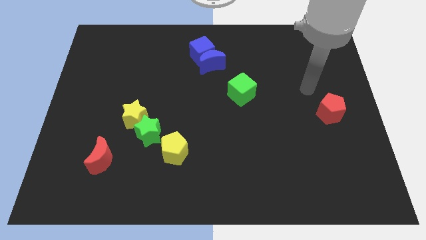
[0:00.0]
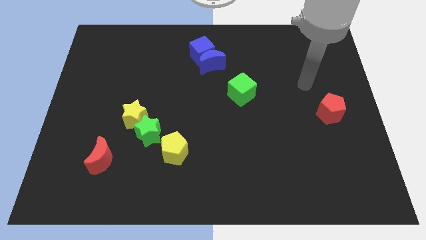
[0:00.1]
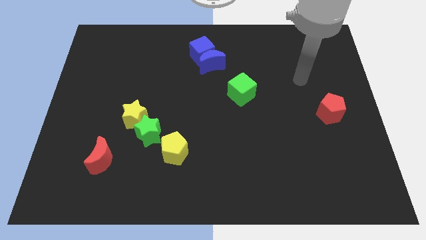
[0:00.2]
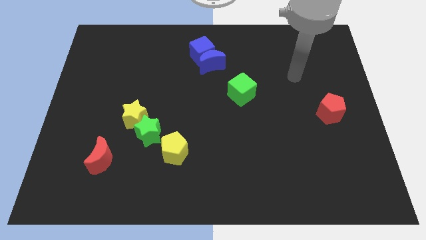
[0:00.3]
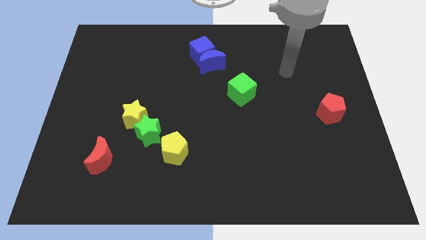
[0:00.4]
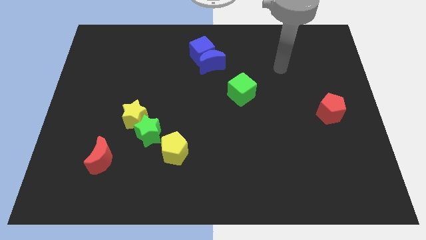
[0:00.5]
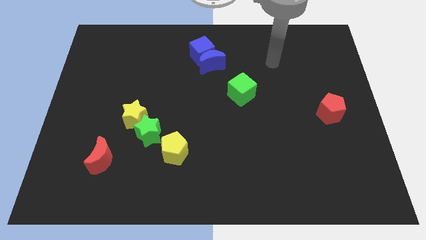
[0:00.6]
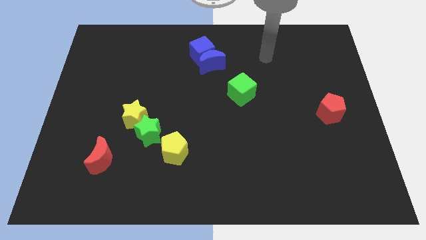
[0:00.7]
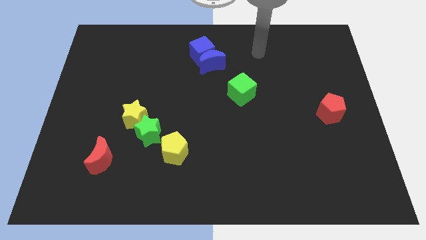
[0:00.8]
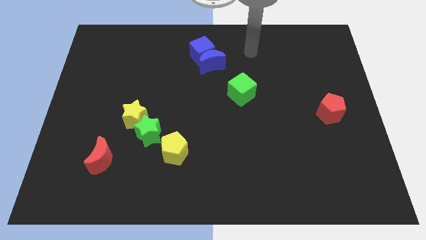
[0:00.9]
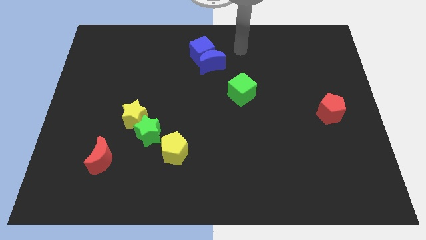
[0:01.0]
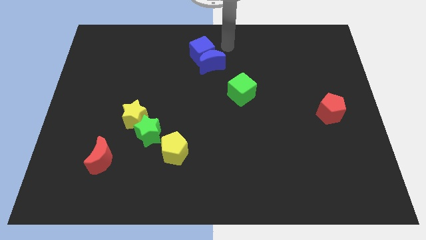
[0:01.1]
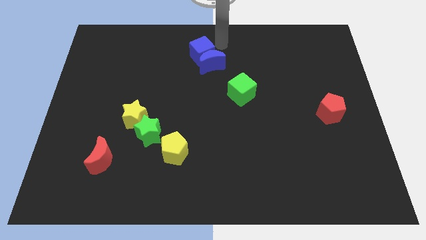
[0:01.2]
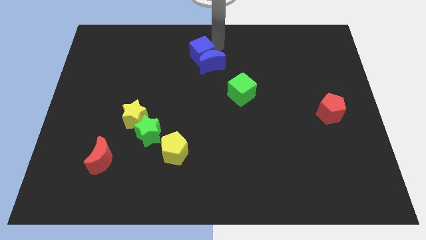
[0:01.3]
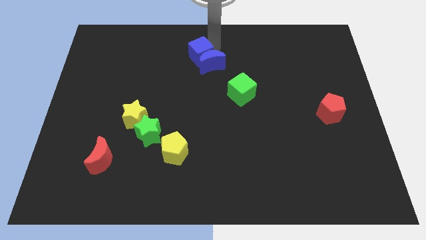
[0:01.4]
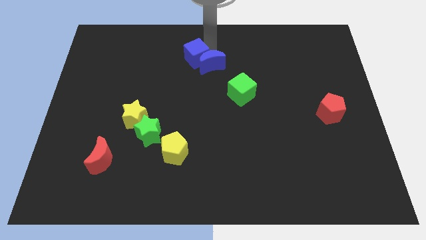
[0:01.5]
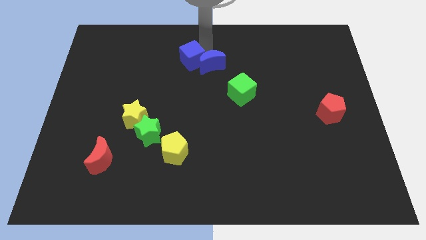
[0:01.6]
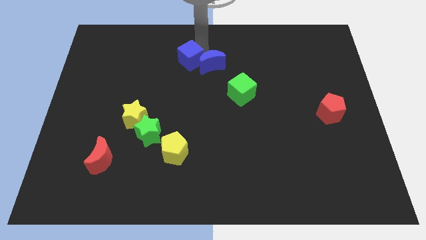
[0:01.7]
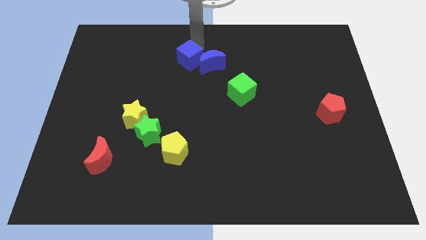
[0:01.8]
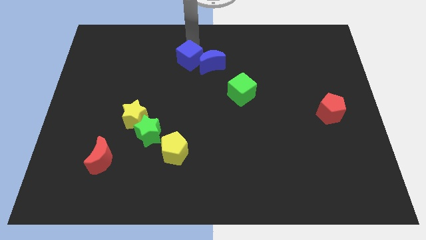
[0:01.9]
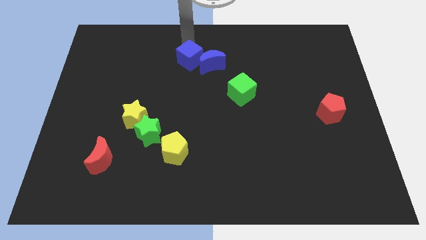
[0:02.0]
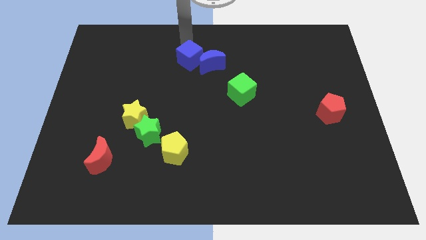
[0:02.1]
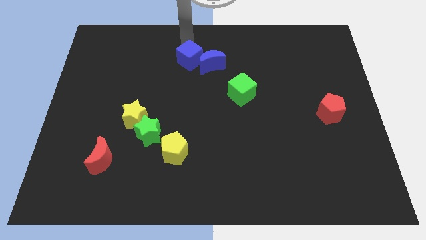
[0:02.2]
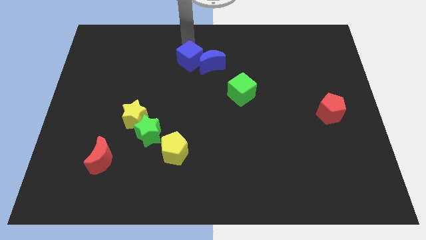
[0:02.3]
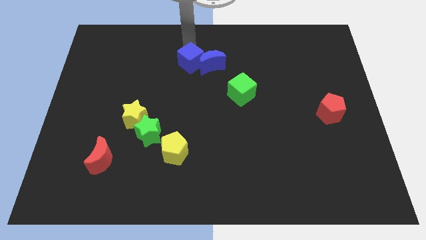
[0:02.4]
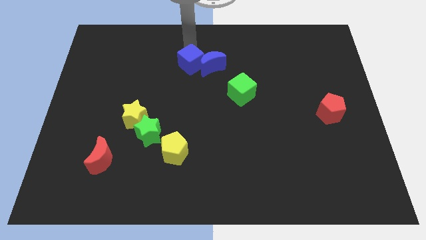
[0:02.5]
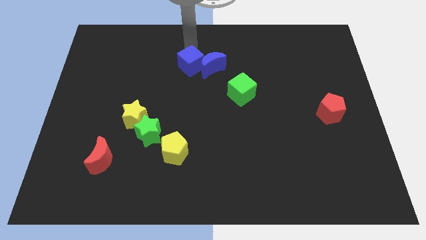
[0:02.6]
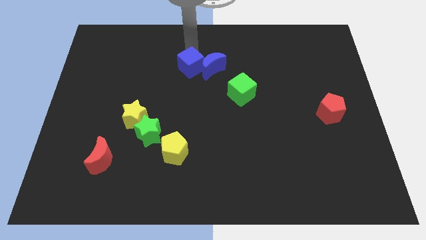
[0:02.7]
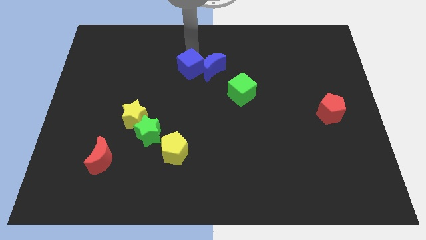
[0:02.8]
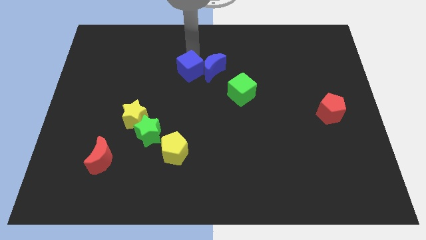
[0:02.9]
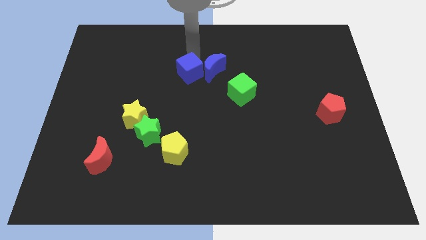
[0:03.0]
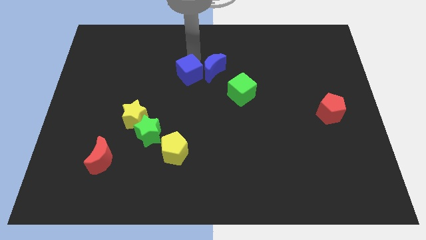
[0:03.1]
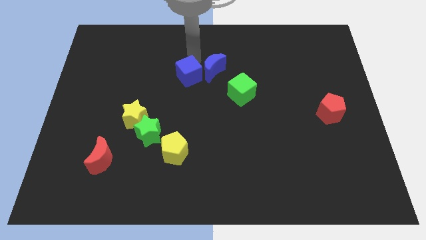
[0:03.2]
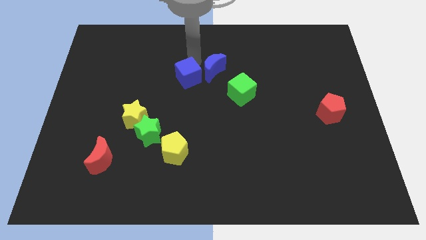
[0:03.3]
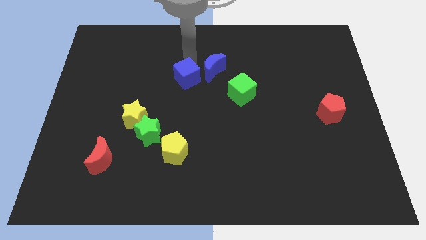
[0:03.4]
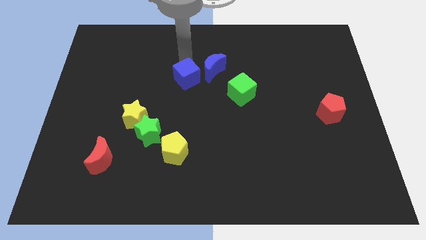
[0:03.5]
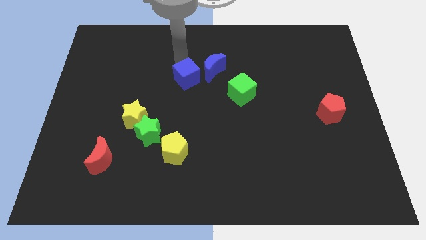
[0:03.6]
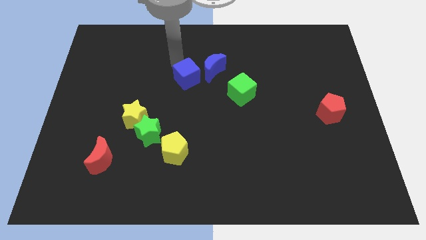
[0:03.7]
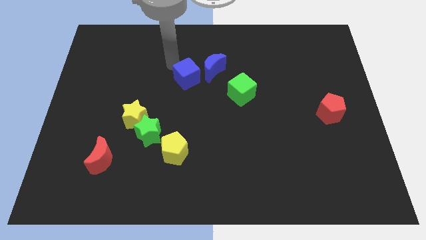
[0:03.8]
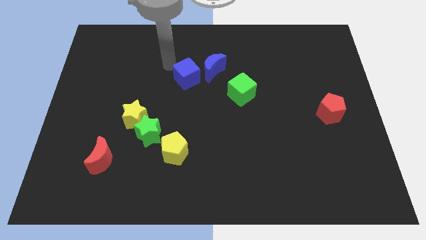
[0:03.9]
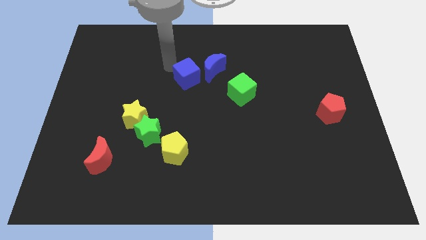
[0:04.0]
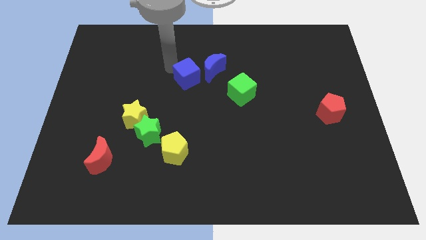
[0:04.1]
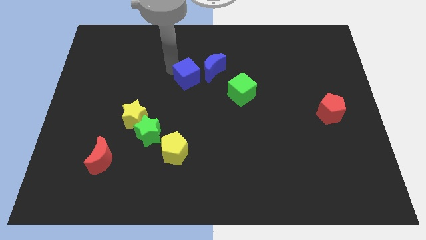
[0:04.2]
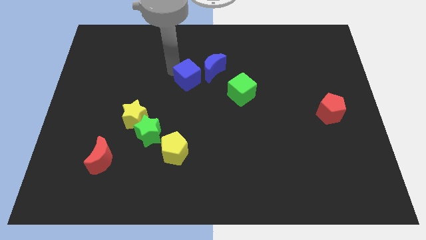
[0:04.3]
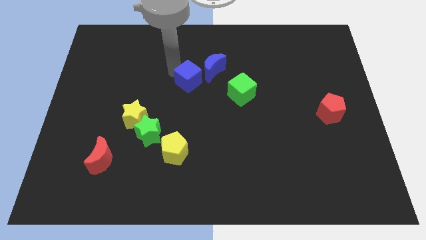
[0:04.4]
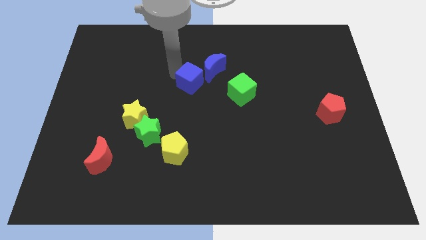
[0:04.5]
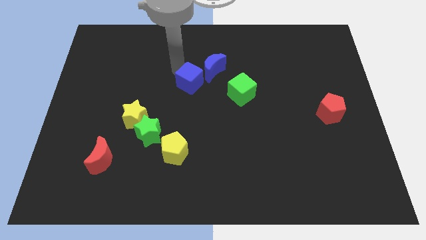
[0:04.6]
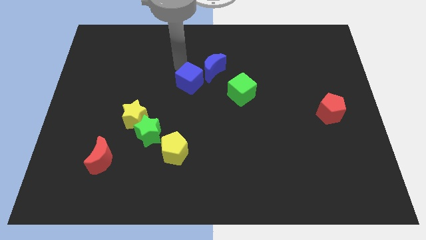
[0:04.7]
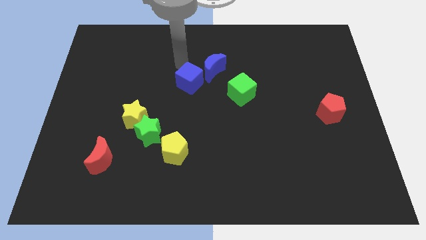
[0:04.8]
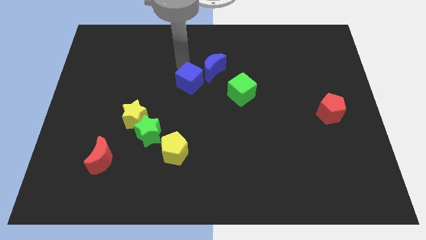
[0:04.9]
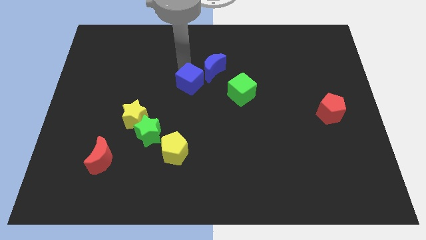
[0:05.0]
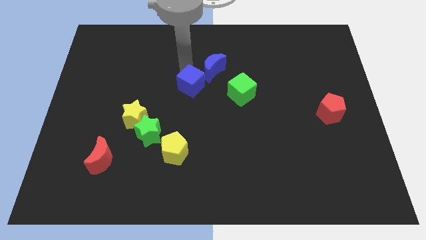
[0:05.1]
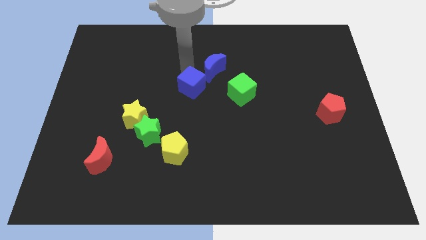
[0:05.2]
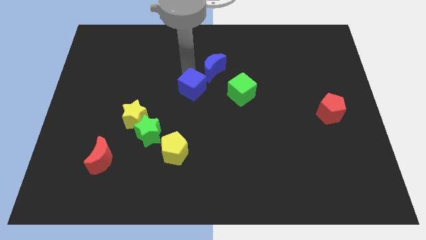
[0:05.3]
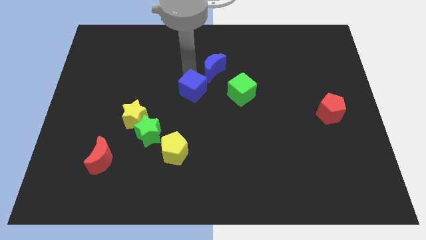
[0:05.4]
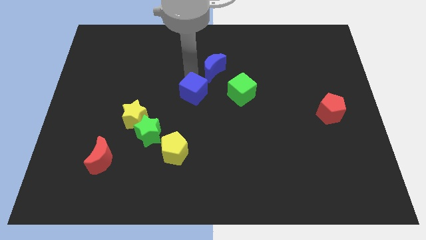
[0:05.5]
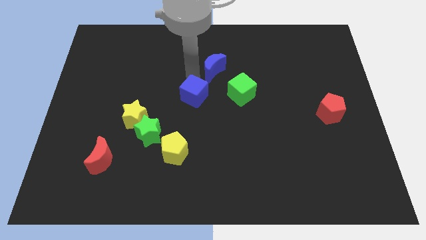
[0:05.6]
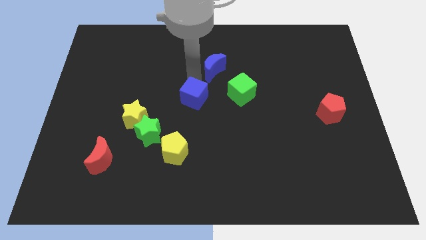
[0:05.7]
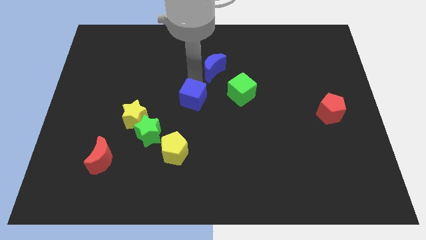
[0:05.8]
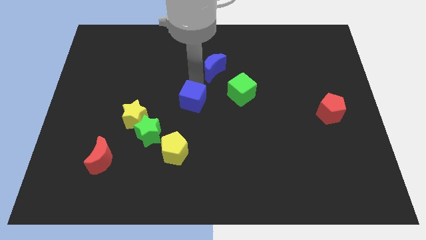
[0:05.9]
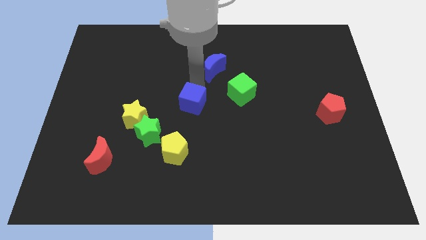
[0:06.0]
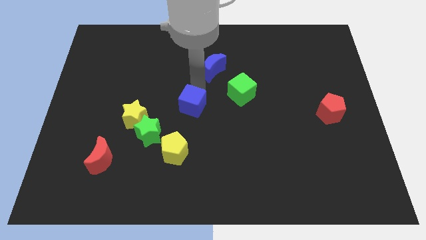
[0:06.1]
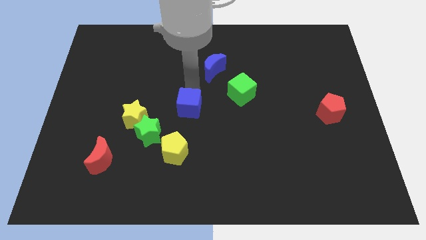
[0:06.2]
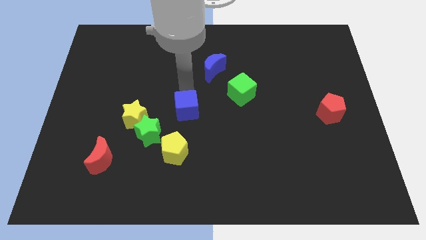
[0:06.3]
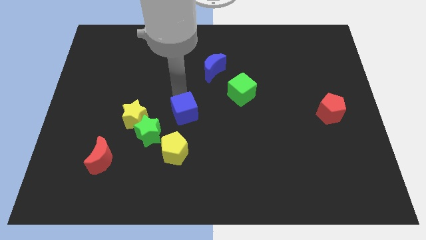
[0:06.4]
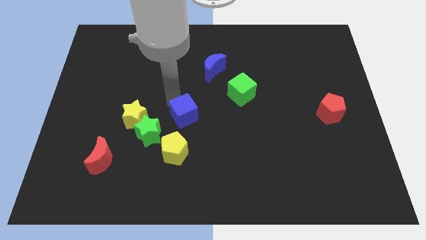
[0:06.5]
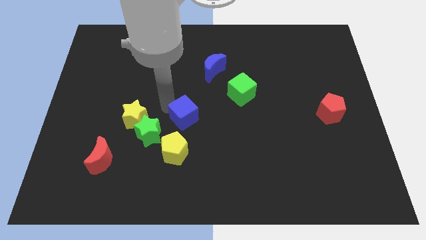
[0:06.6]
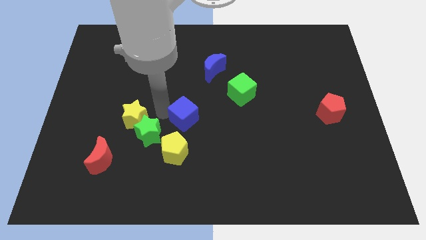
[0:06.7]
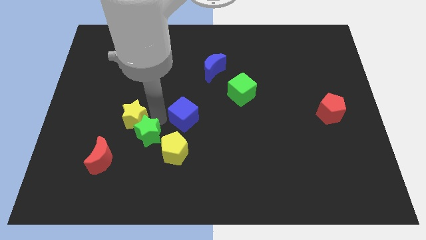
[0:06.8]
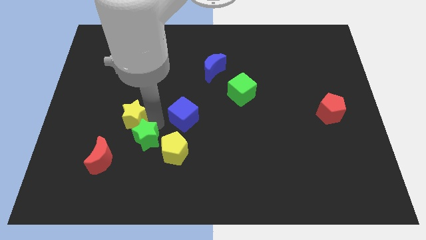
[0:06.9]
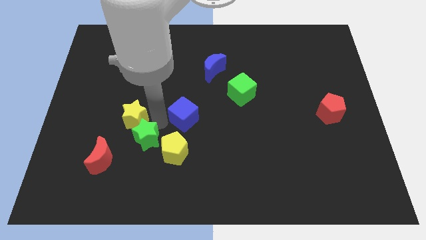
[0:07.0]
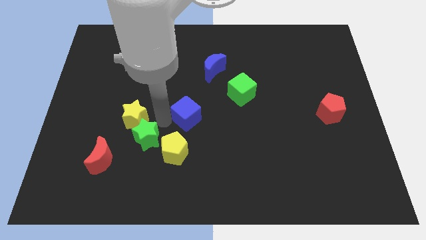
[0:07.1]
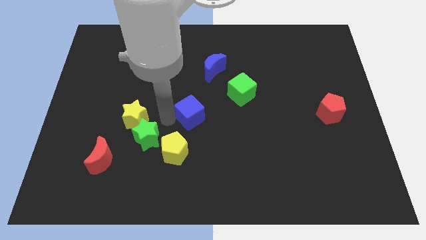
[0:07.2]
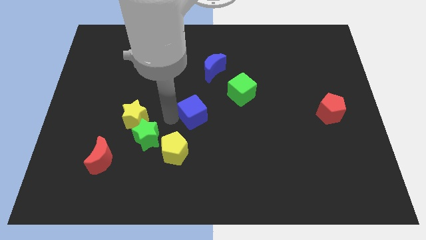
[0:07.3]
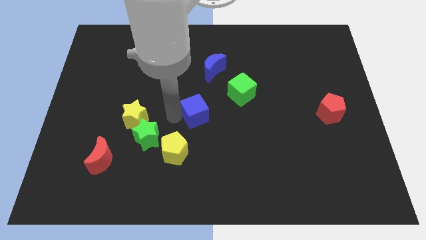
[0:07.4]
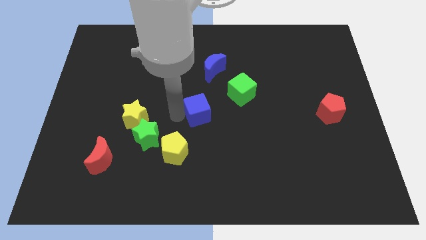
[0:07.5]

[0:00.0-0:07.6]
move the blue cube to the bottom left of the green cube
